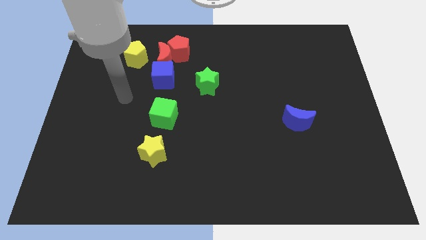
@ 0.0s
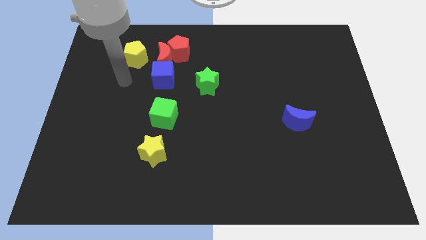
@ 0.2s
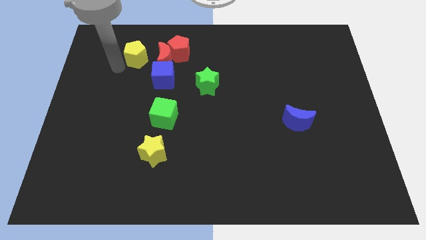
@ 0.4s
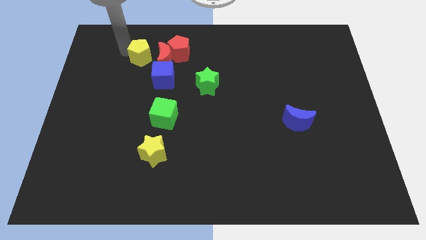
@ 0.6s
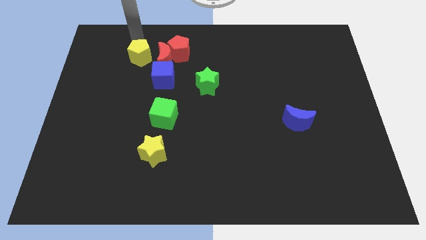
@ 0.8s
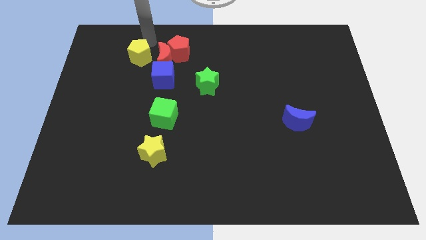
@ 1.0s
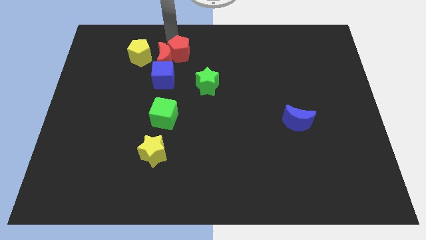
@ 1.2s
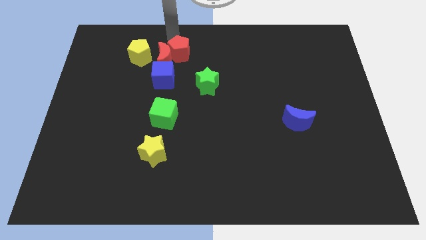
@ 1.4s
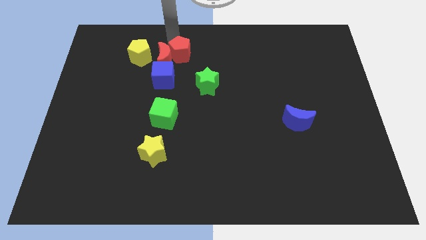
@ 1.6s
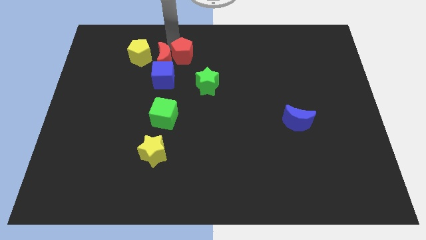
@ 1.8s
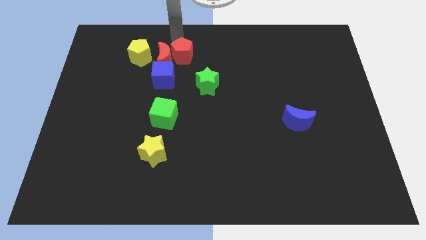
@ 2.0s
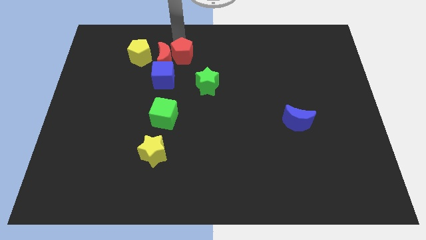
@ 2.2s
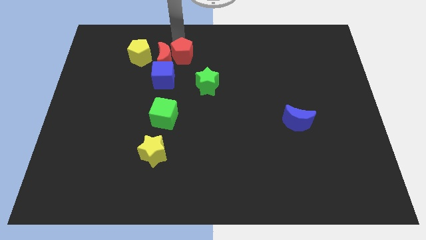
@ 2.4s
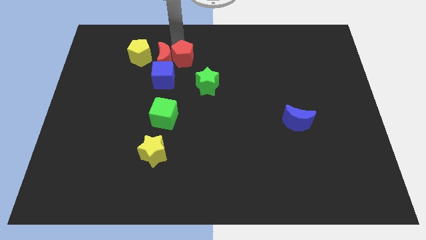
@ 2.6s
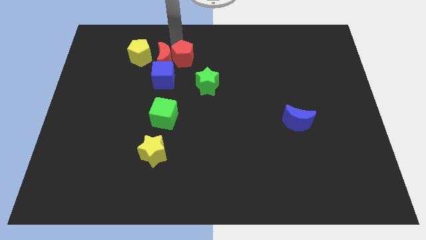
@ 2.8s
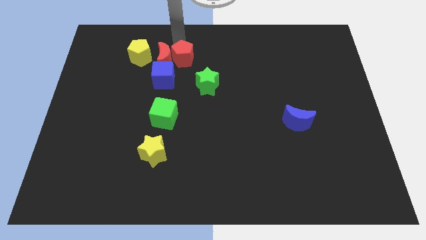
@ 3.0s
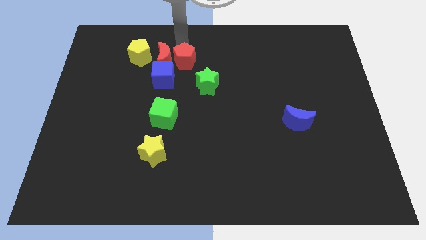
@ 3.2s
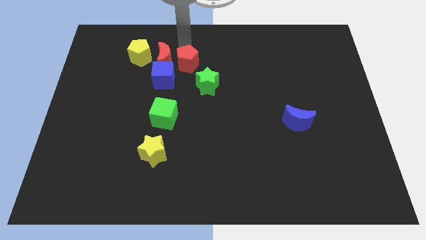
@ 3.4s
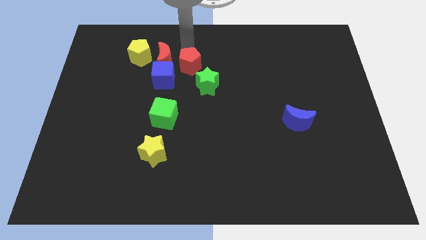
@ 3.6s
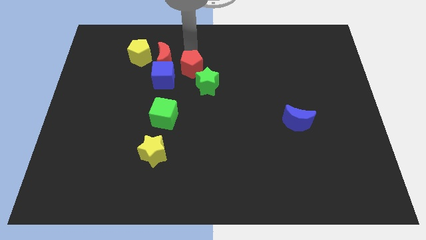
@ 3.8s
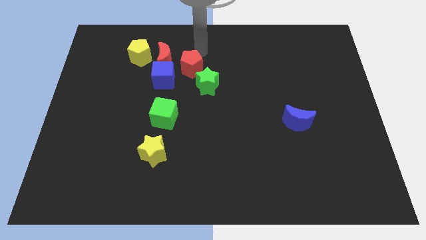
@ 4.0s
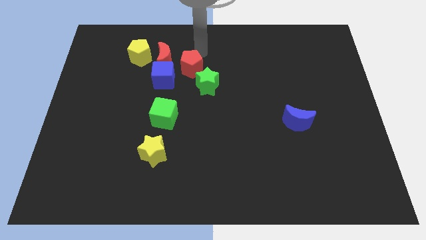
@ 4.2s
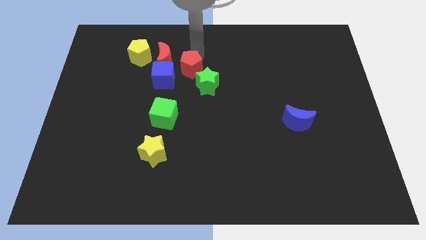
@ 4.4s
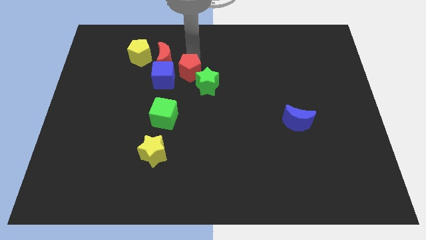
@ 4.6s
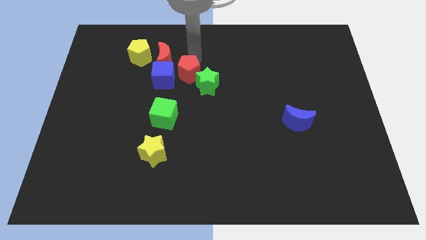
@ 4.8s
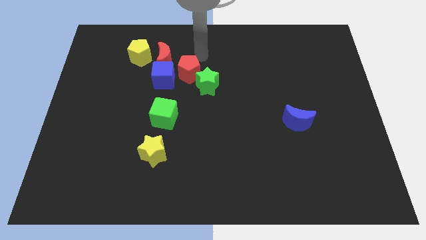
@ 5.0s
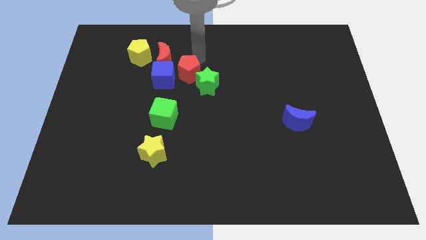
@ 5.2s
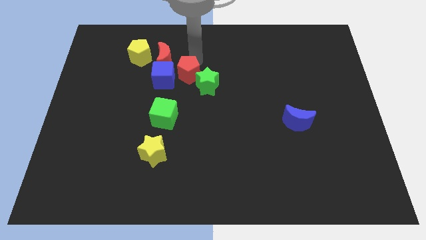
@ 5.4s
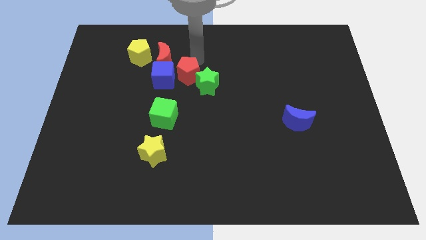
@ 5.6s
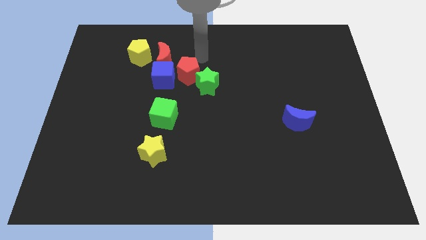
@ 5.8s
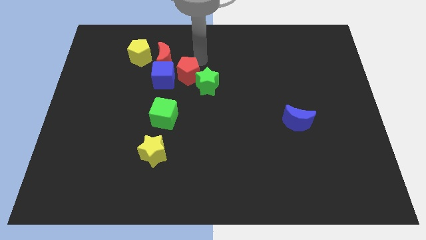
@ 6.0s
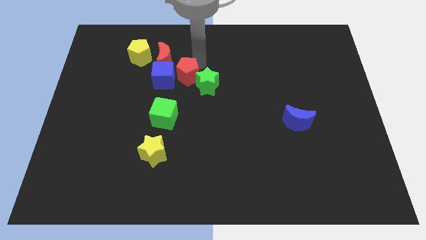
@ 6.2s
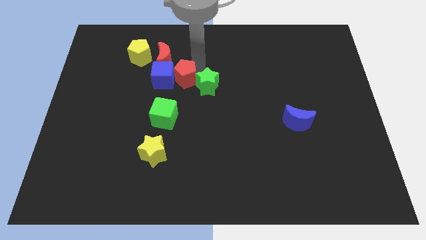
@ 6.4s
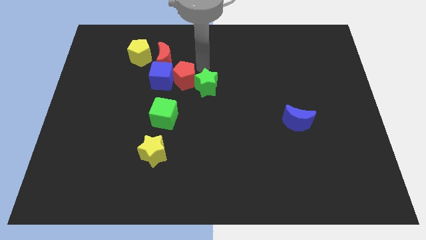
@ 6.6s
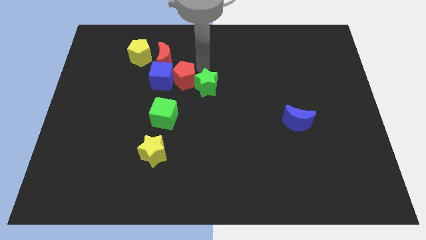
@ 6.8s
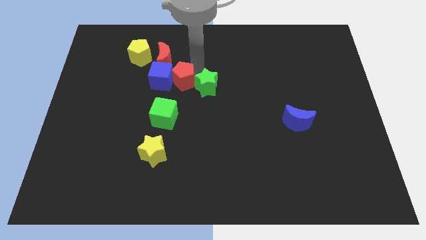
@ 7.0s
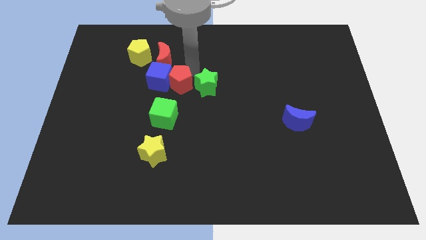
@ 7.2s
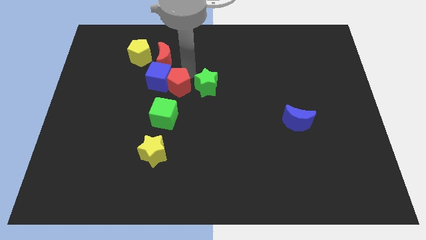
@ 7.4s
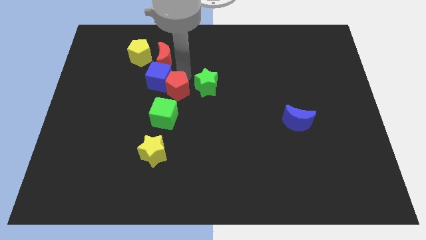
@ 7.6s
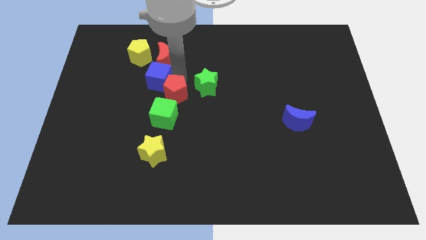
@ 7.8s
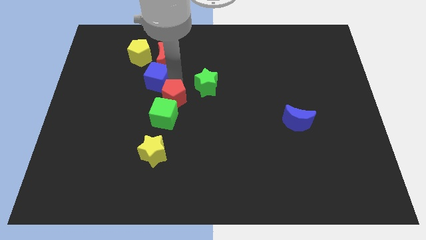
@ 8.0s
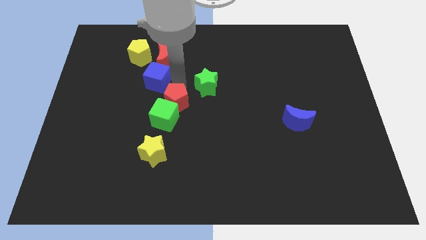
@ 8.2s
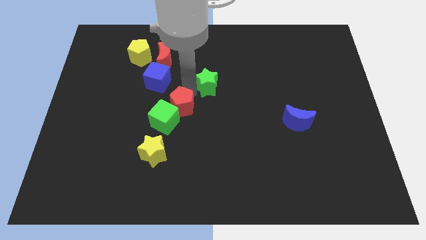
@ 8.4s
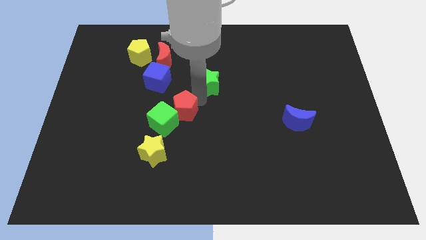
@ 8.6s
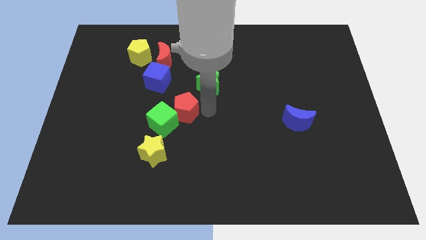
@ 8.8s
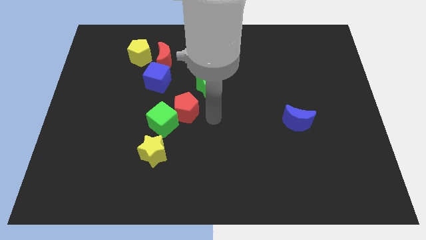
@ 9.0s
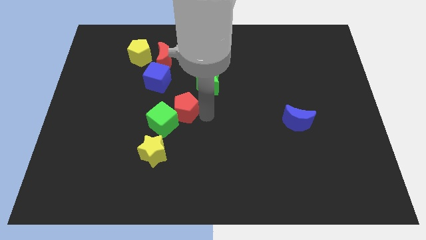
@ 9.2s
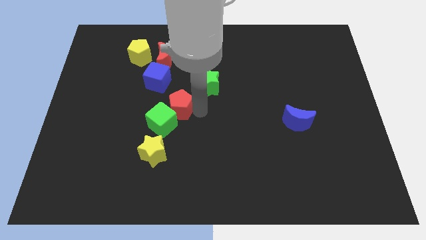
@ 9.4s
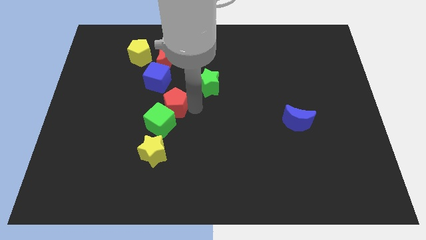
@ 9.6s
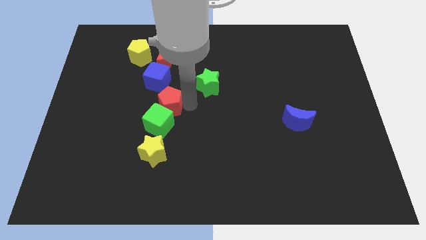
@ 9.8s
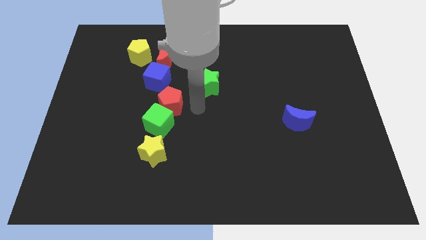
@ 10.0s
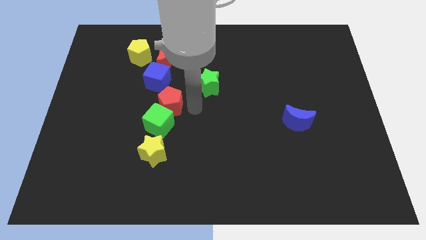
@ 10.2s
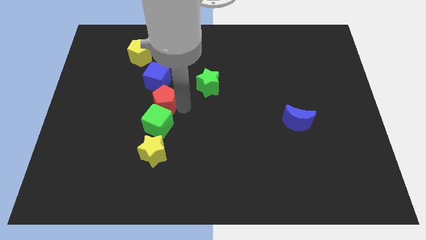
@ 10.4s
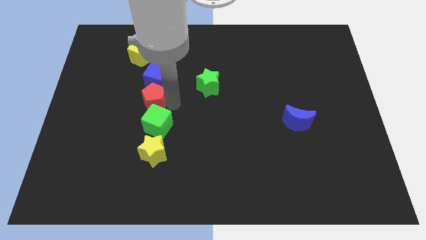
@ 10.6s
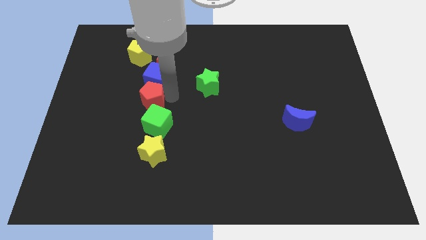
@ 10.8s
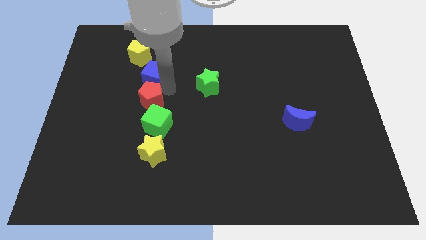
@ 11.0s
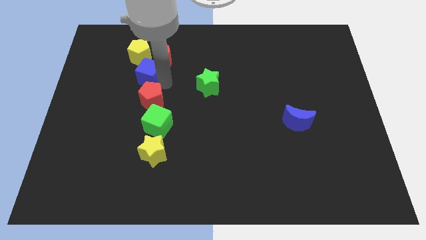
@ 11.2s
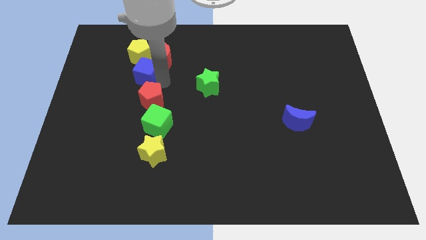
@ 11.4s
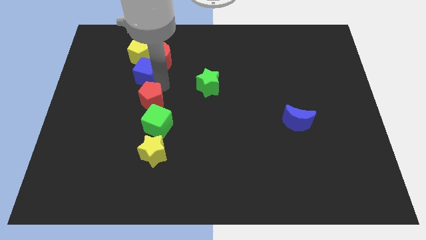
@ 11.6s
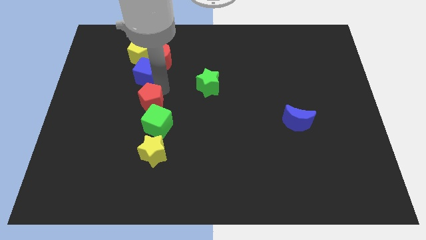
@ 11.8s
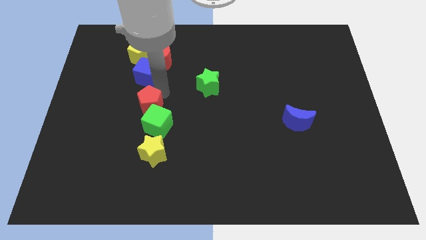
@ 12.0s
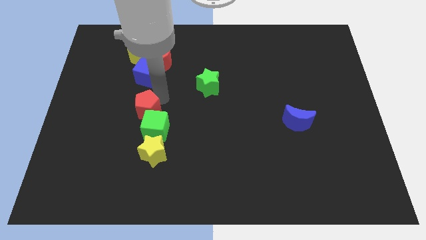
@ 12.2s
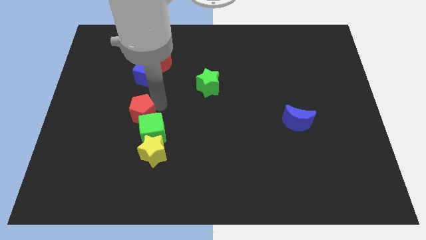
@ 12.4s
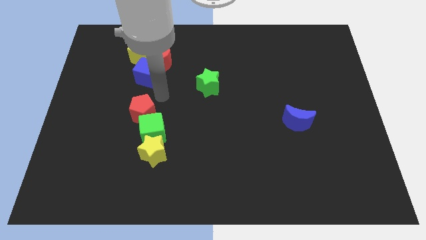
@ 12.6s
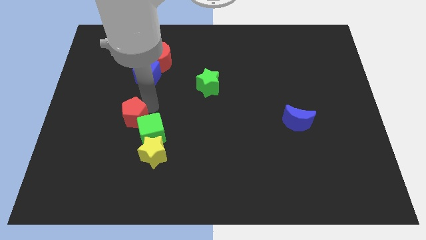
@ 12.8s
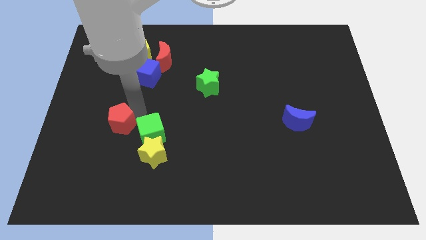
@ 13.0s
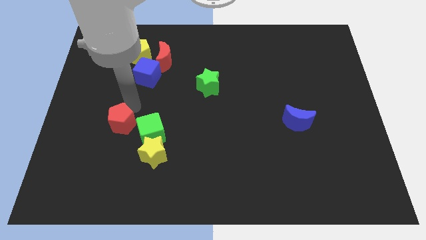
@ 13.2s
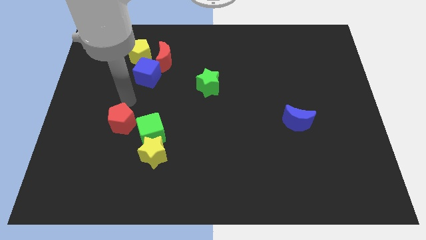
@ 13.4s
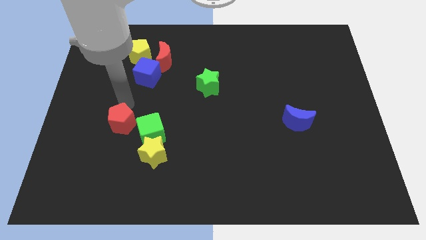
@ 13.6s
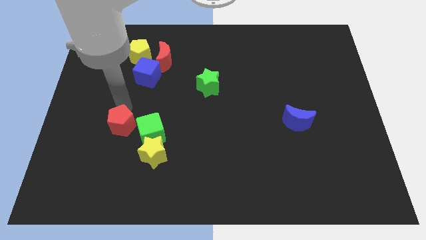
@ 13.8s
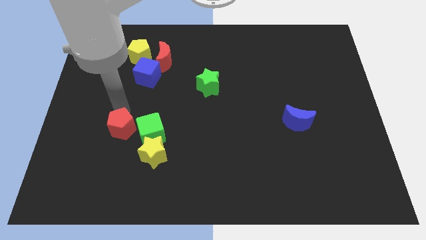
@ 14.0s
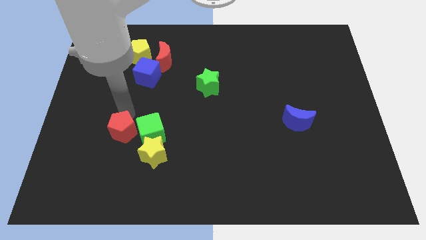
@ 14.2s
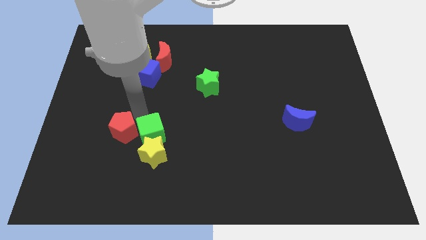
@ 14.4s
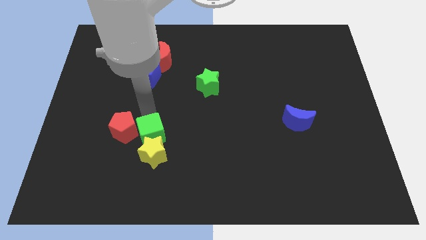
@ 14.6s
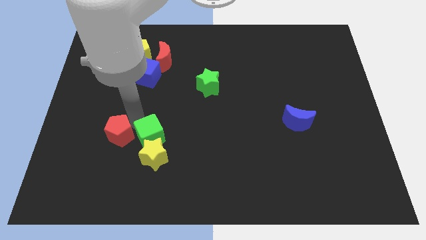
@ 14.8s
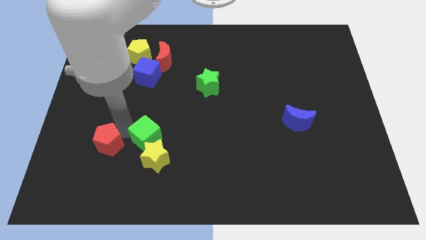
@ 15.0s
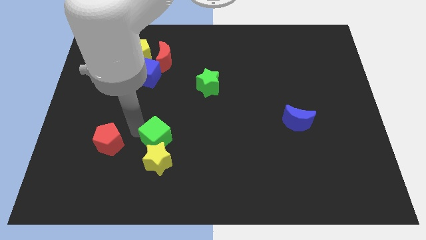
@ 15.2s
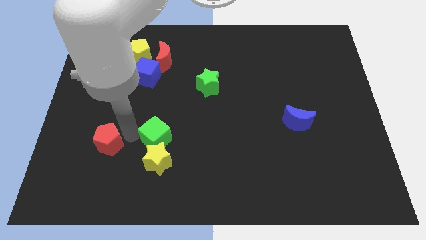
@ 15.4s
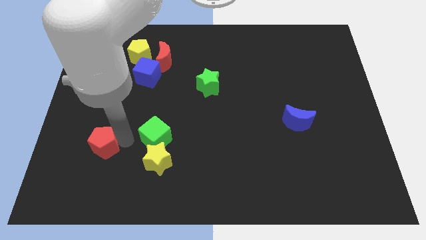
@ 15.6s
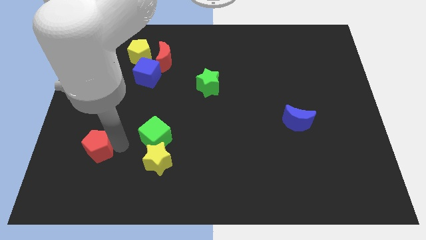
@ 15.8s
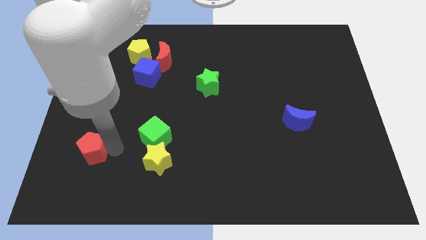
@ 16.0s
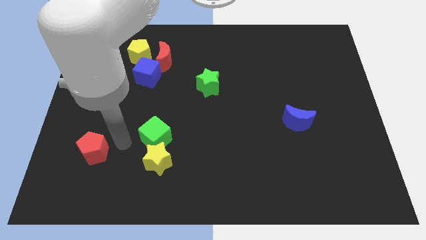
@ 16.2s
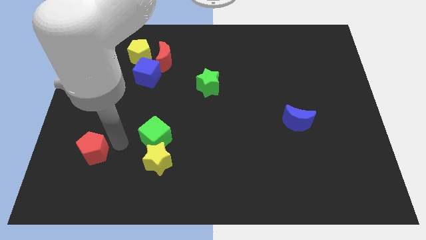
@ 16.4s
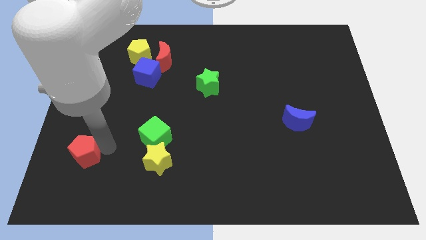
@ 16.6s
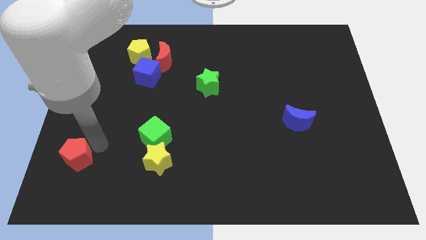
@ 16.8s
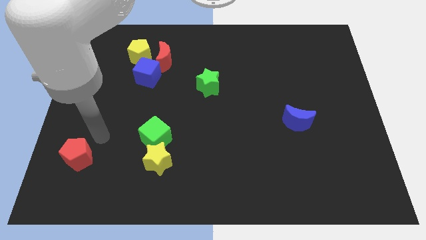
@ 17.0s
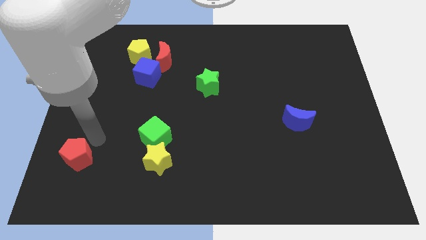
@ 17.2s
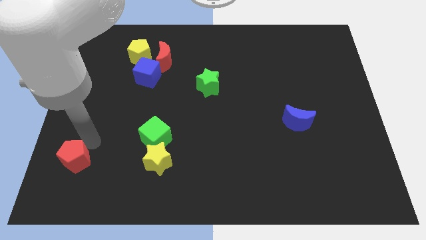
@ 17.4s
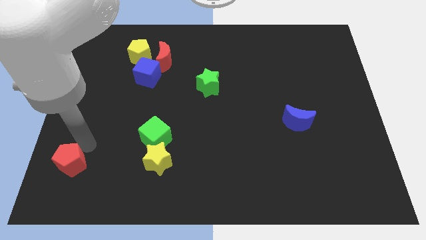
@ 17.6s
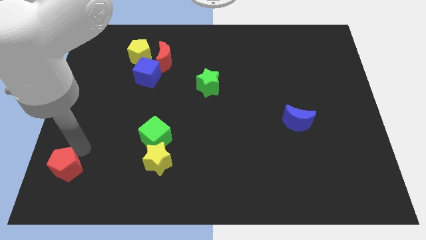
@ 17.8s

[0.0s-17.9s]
put the red pentagon to the bottom left of the board
